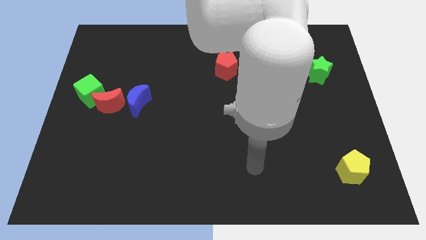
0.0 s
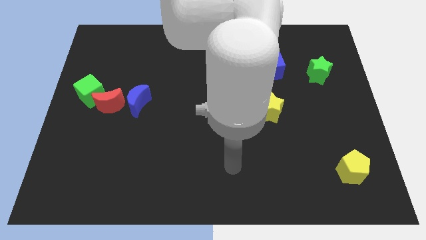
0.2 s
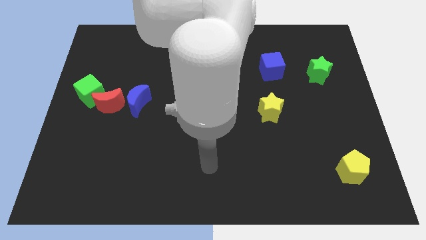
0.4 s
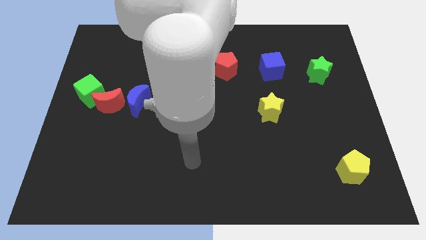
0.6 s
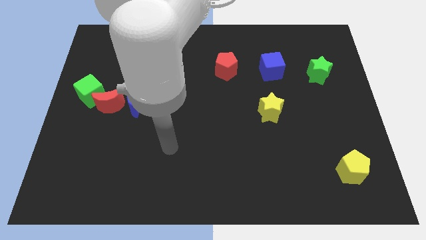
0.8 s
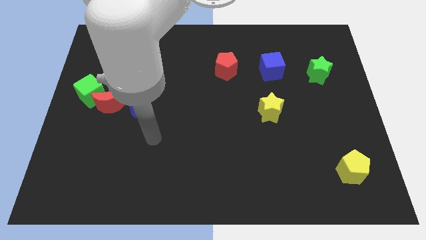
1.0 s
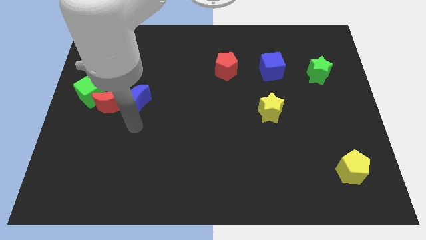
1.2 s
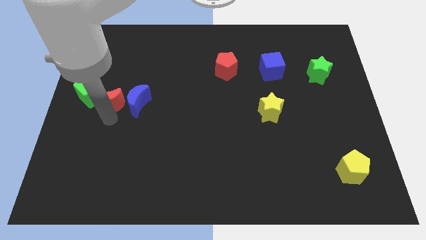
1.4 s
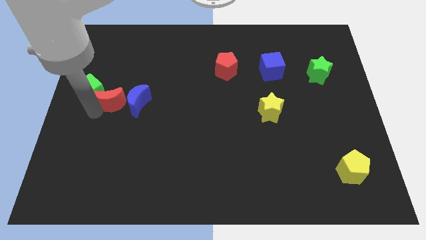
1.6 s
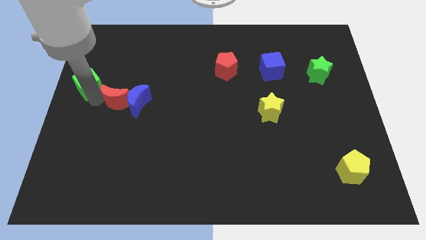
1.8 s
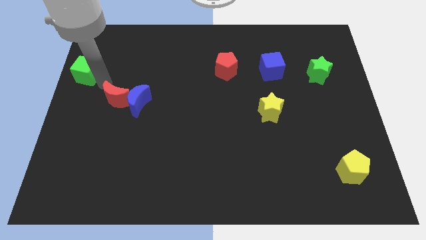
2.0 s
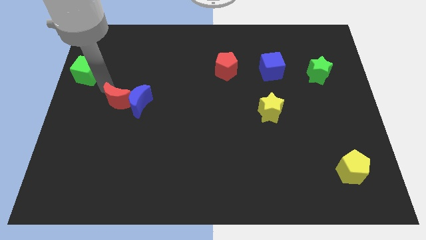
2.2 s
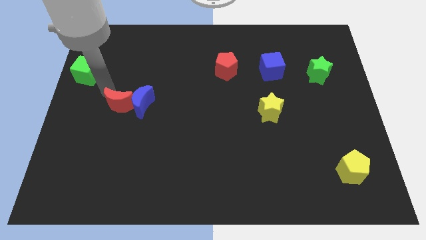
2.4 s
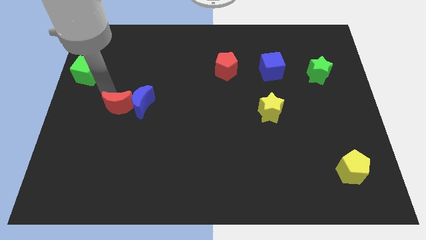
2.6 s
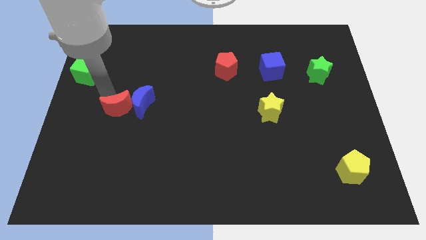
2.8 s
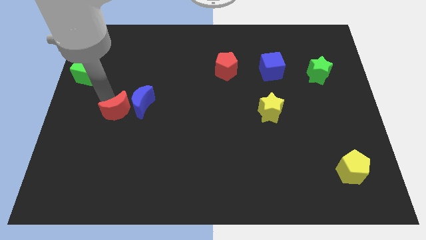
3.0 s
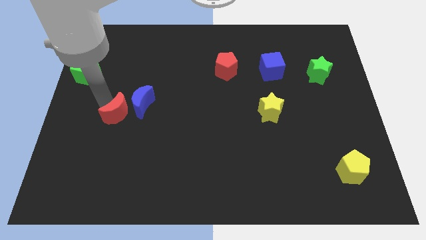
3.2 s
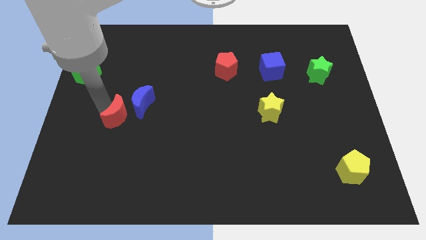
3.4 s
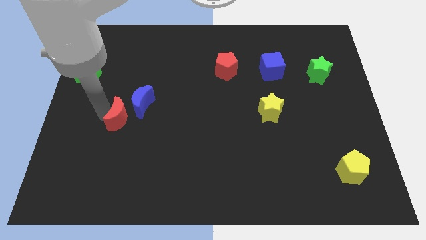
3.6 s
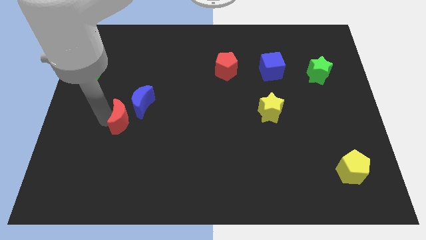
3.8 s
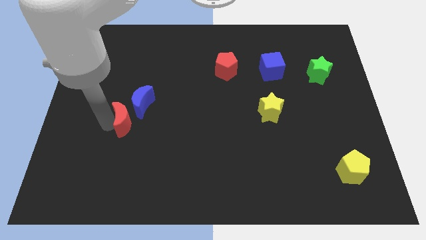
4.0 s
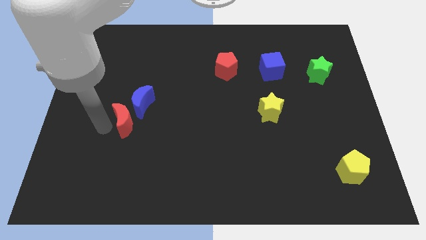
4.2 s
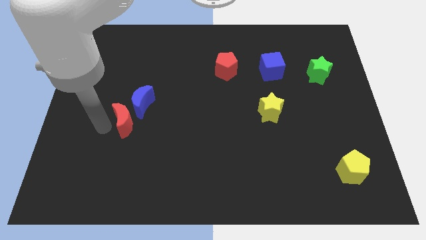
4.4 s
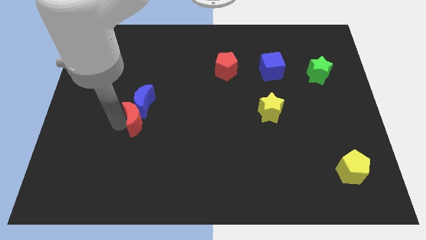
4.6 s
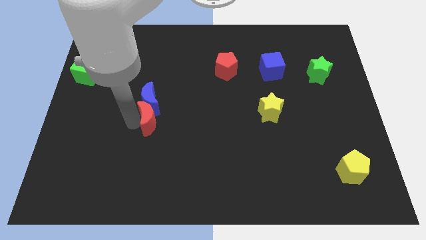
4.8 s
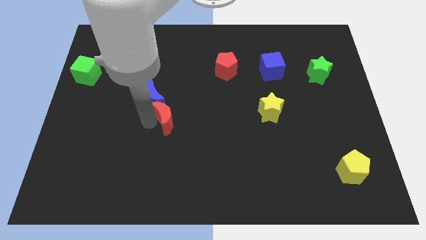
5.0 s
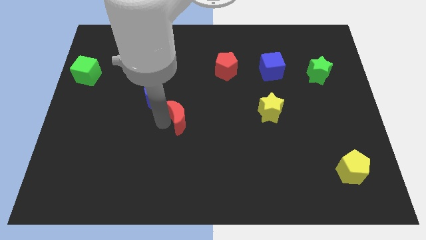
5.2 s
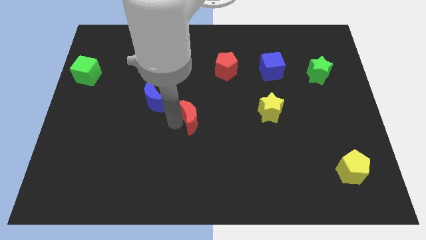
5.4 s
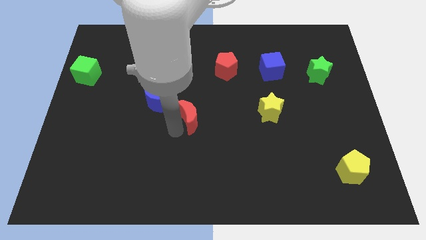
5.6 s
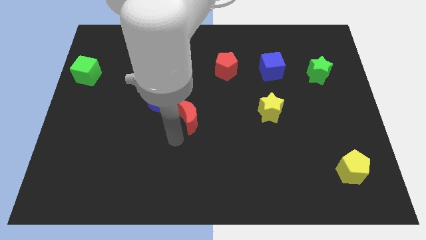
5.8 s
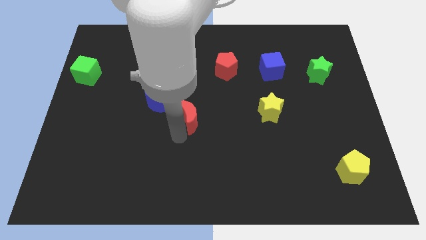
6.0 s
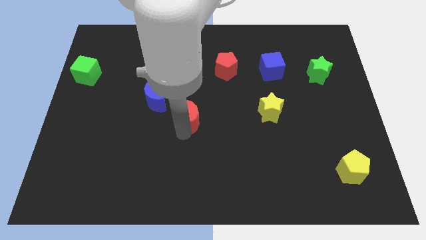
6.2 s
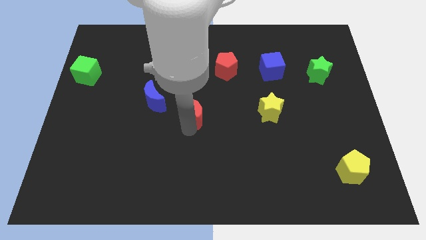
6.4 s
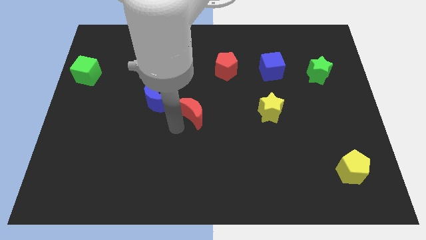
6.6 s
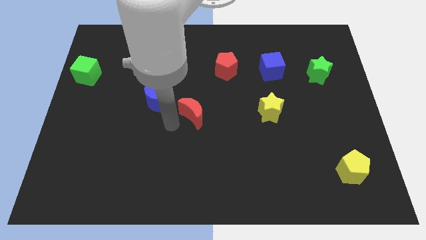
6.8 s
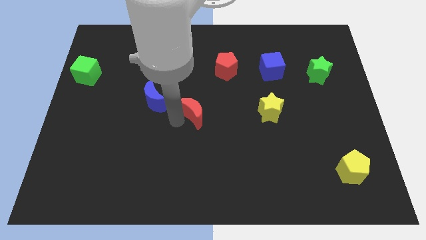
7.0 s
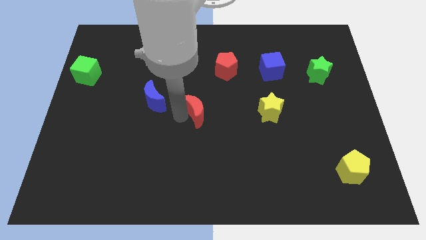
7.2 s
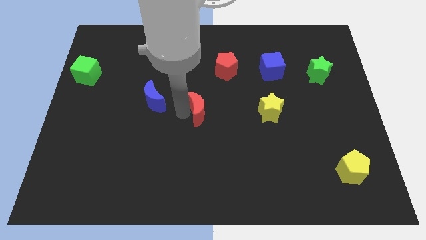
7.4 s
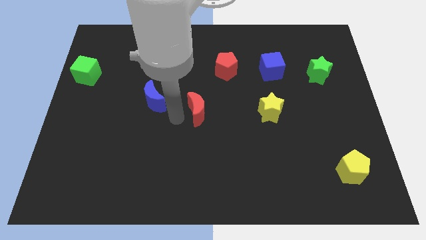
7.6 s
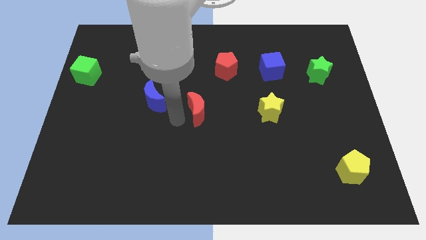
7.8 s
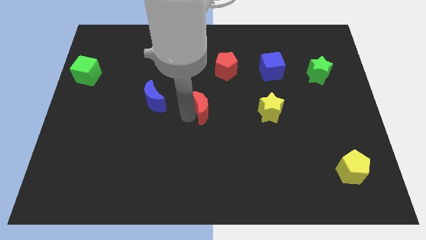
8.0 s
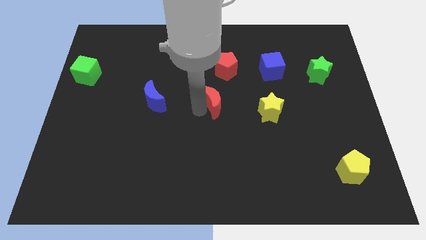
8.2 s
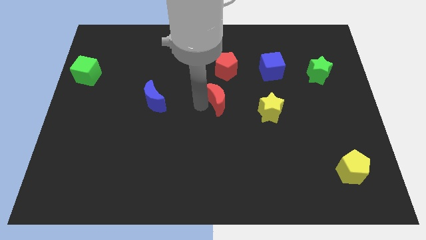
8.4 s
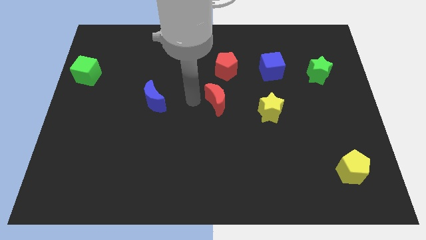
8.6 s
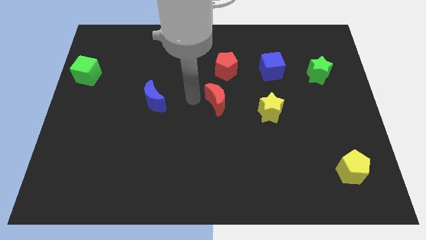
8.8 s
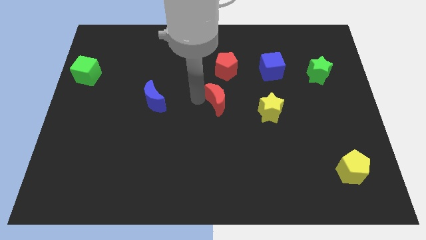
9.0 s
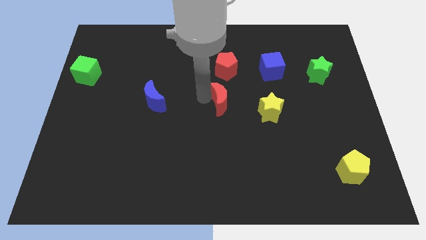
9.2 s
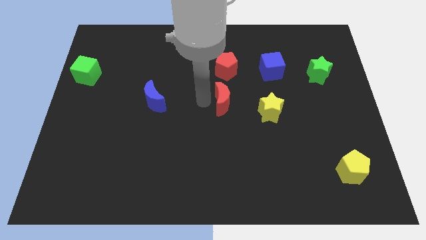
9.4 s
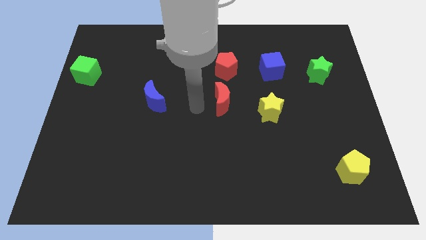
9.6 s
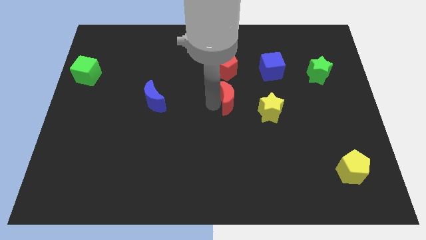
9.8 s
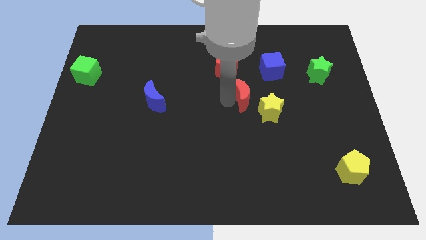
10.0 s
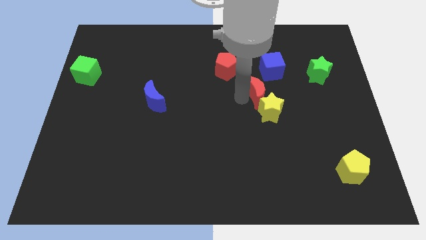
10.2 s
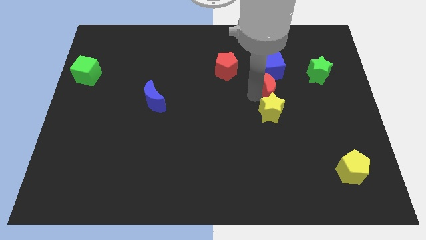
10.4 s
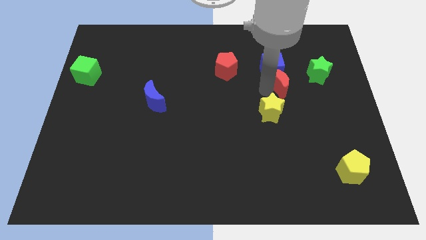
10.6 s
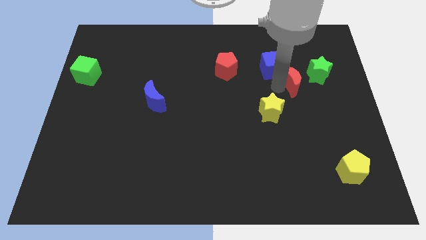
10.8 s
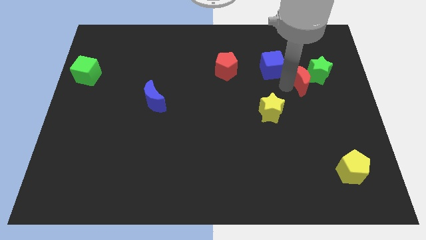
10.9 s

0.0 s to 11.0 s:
slide the red moon close to the green star

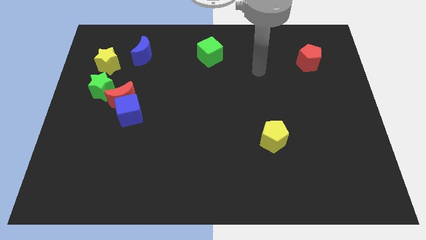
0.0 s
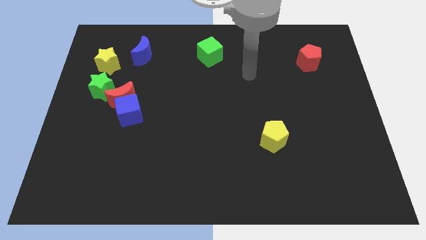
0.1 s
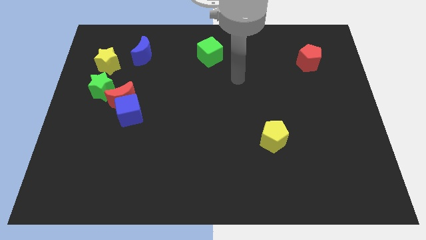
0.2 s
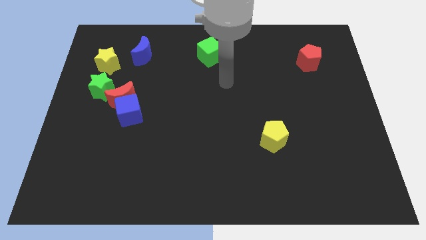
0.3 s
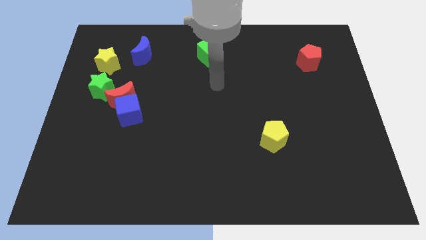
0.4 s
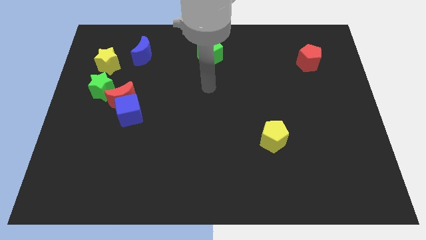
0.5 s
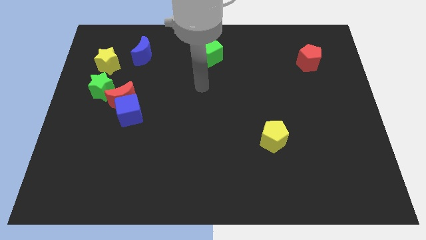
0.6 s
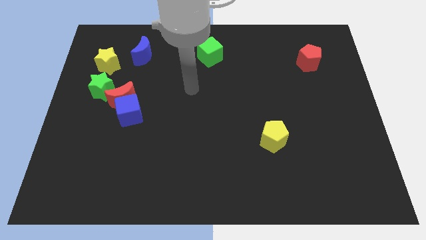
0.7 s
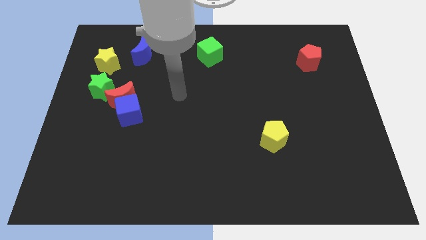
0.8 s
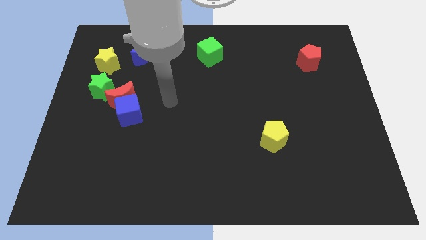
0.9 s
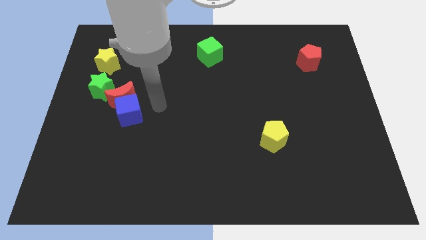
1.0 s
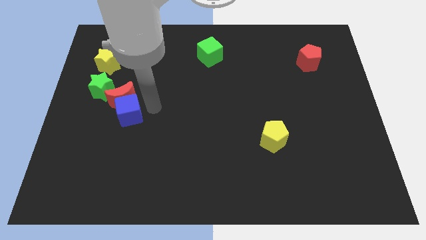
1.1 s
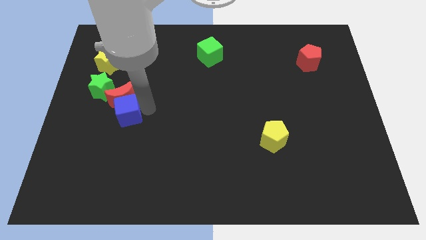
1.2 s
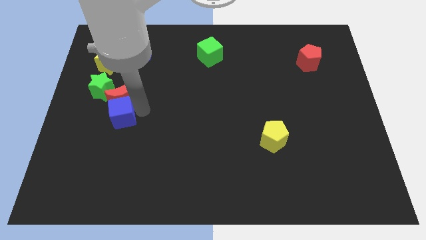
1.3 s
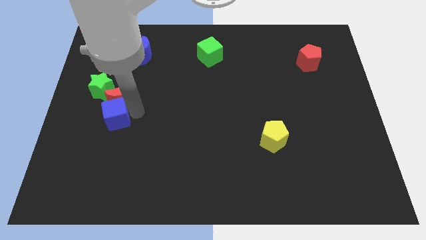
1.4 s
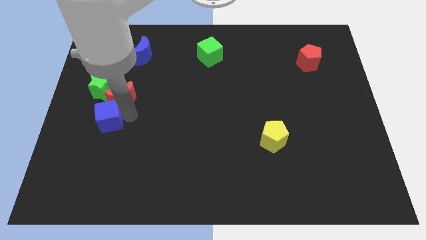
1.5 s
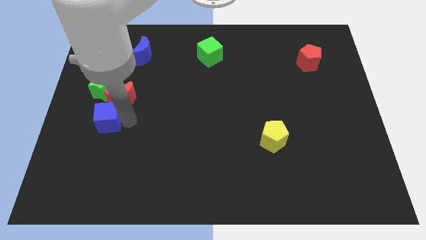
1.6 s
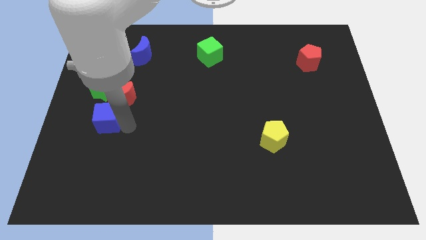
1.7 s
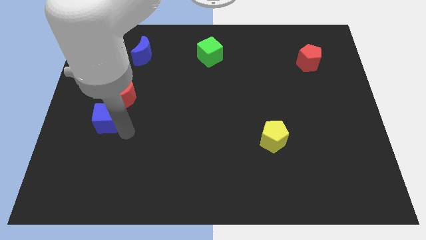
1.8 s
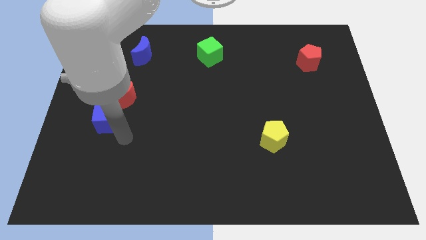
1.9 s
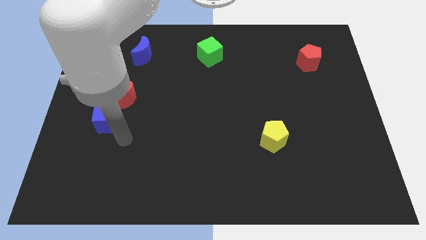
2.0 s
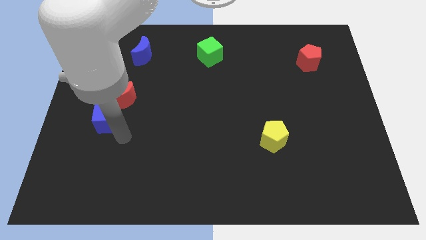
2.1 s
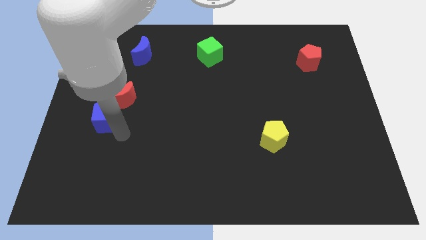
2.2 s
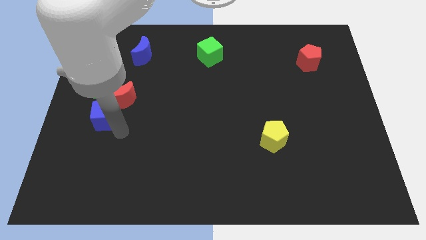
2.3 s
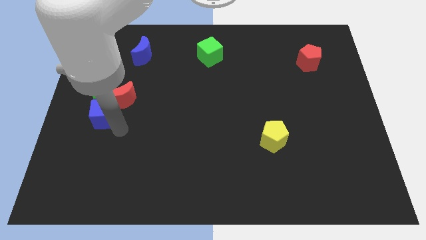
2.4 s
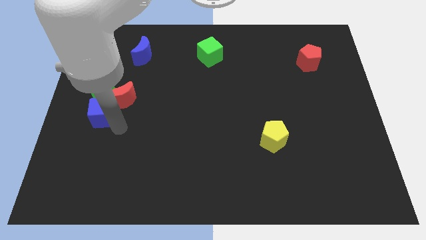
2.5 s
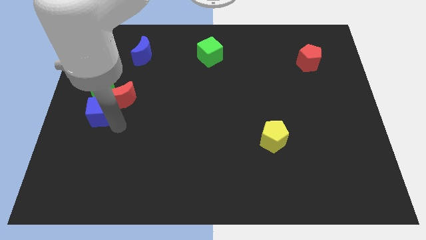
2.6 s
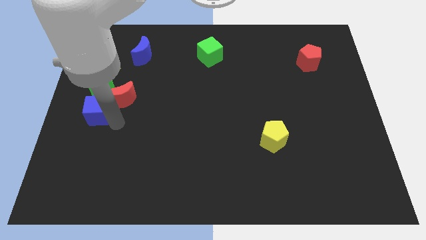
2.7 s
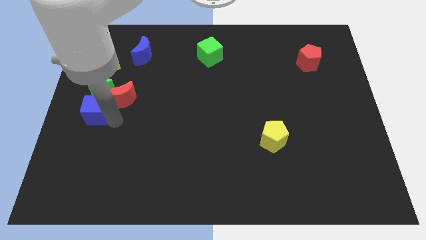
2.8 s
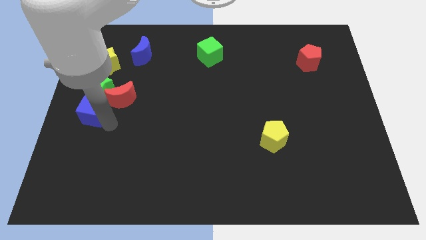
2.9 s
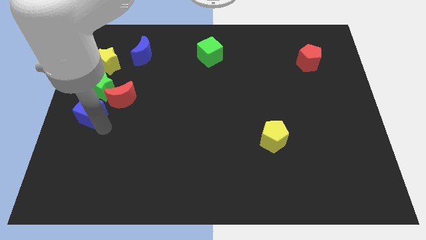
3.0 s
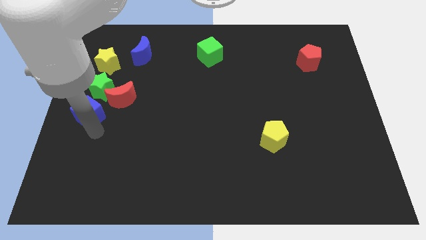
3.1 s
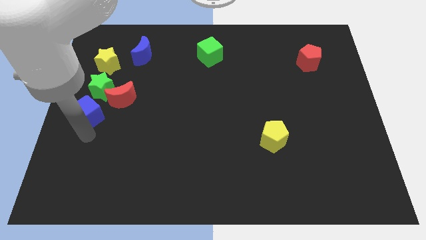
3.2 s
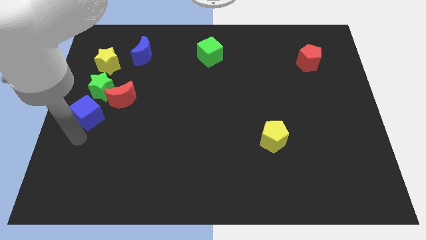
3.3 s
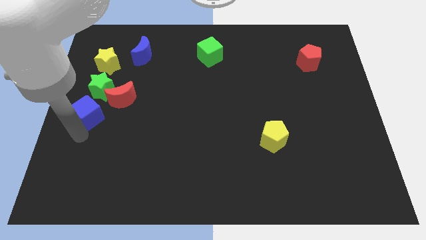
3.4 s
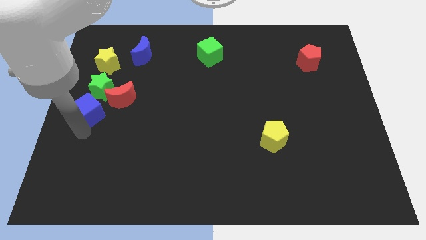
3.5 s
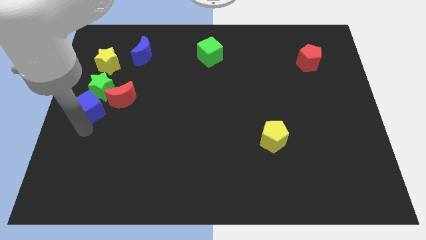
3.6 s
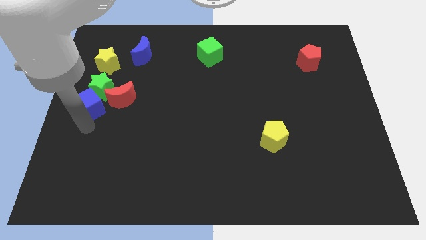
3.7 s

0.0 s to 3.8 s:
put the blue cube towards the green star
